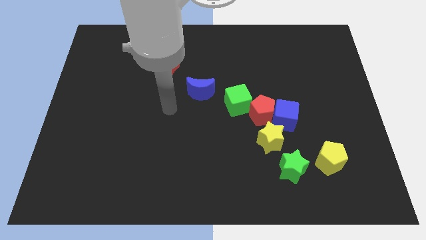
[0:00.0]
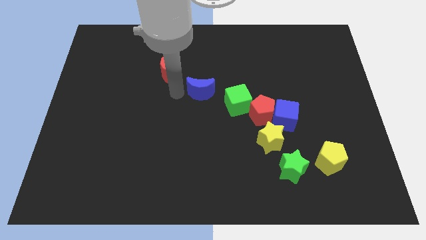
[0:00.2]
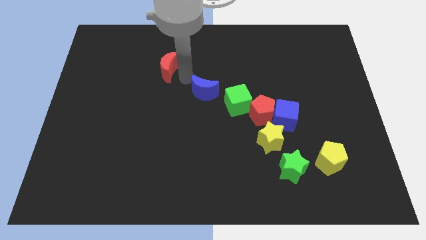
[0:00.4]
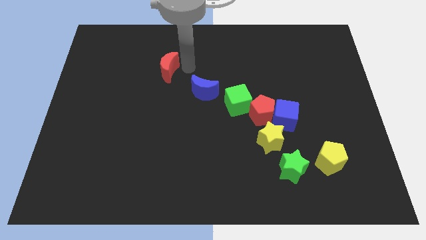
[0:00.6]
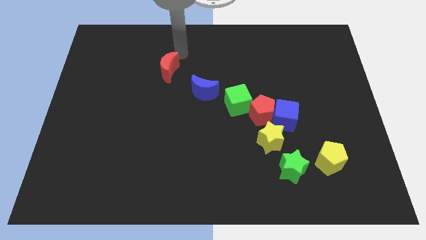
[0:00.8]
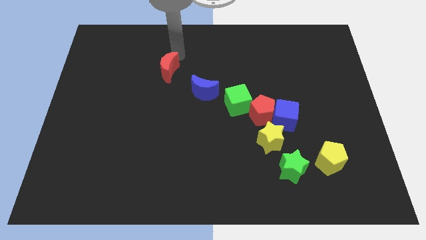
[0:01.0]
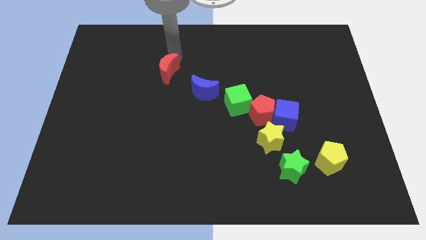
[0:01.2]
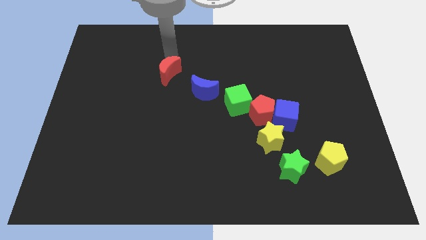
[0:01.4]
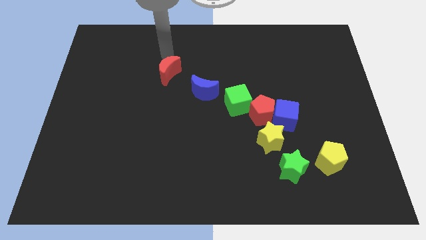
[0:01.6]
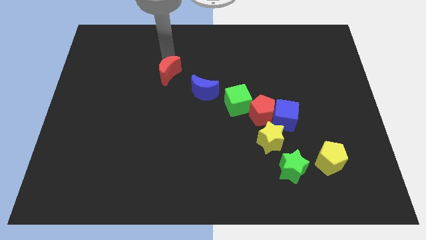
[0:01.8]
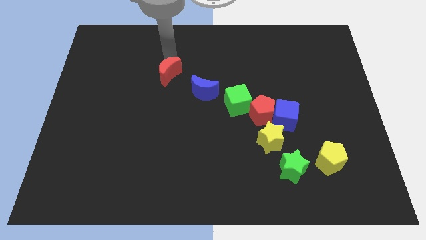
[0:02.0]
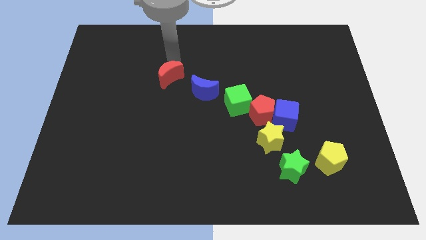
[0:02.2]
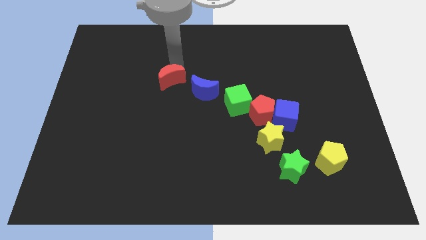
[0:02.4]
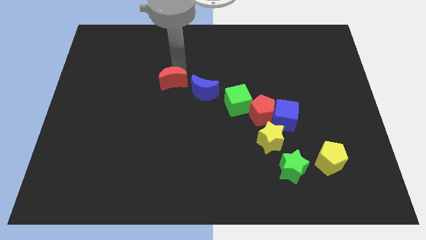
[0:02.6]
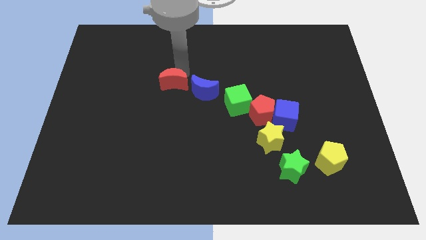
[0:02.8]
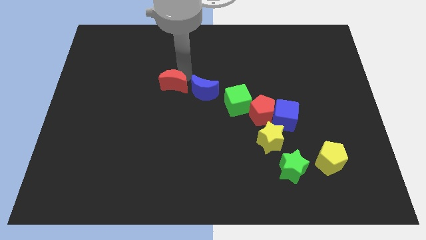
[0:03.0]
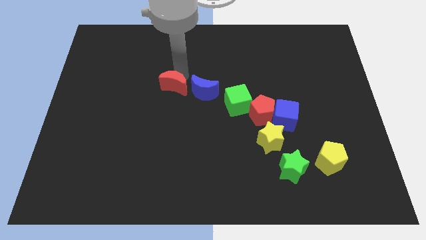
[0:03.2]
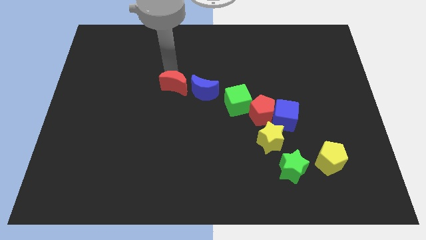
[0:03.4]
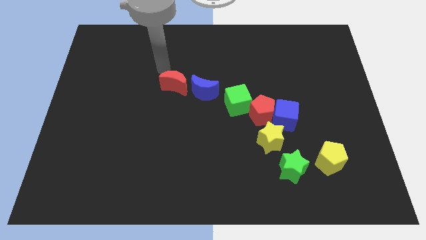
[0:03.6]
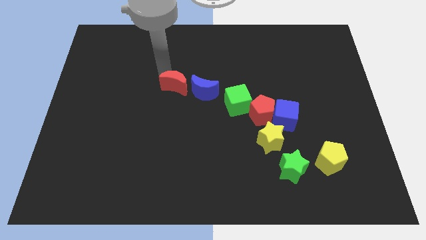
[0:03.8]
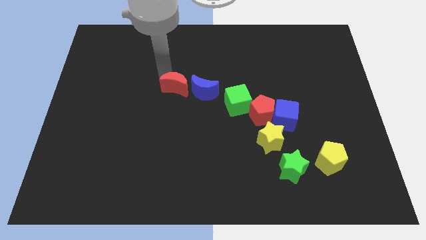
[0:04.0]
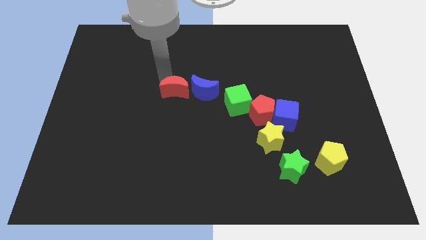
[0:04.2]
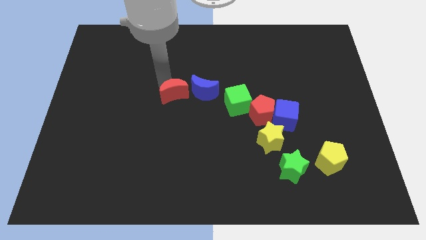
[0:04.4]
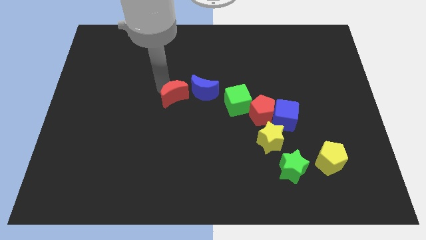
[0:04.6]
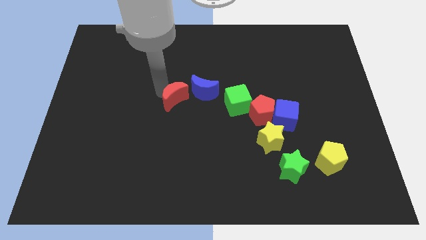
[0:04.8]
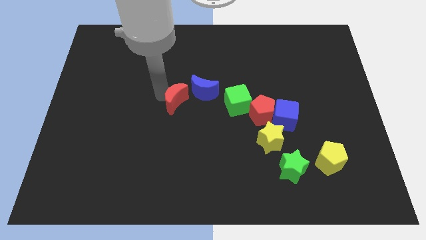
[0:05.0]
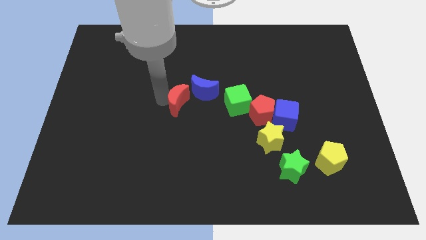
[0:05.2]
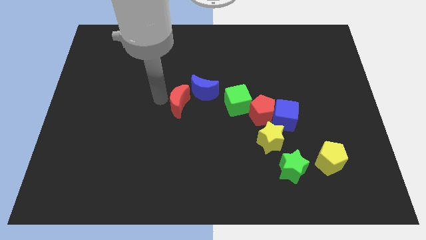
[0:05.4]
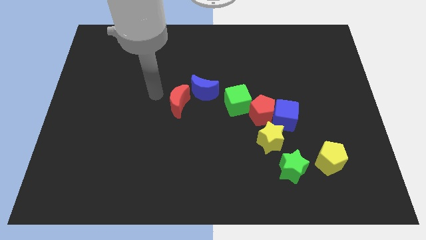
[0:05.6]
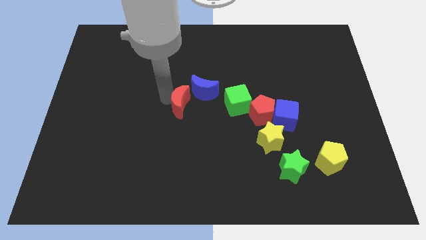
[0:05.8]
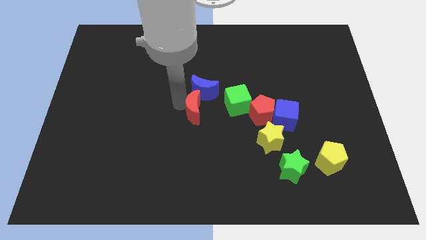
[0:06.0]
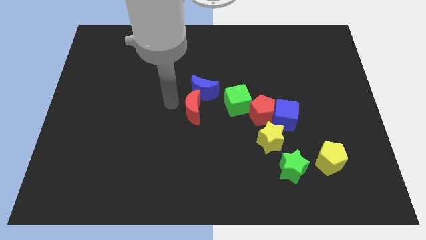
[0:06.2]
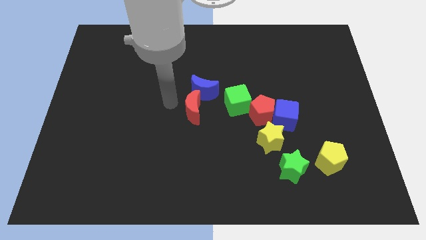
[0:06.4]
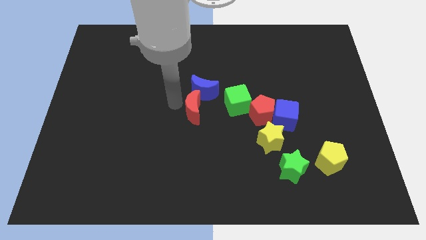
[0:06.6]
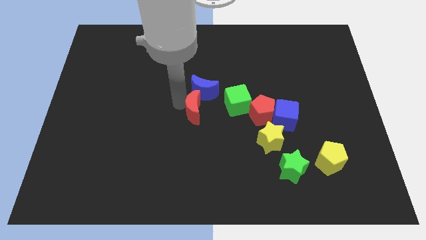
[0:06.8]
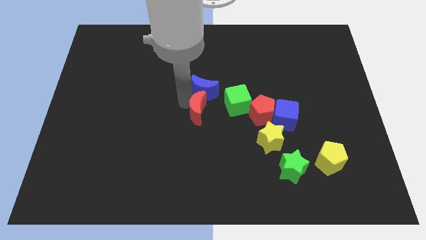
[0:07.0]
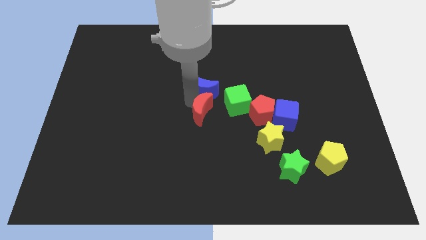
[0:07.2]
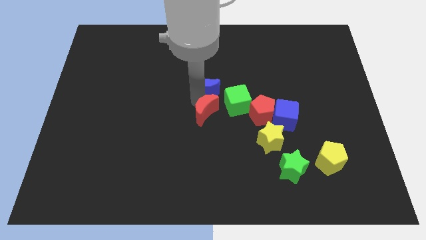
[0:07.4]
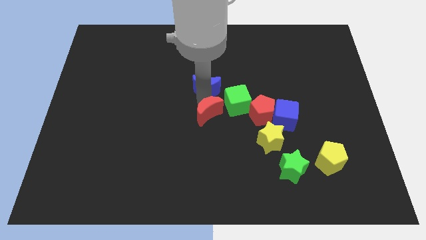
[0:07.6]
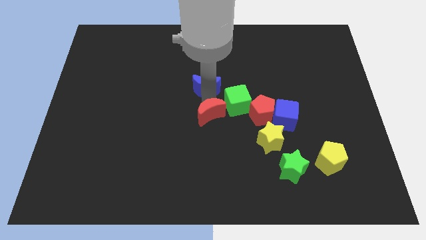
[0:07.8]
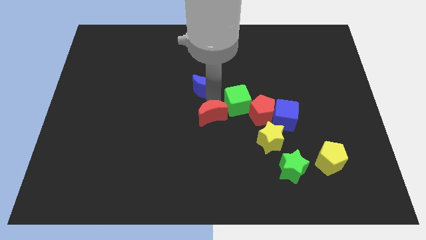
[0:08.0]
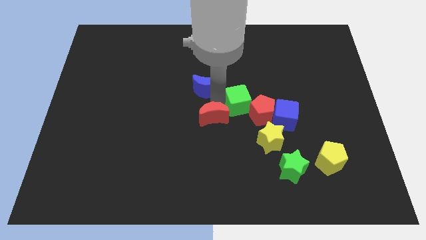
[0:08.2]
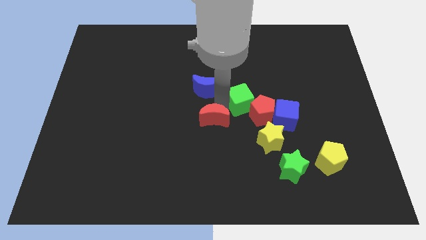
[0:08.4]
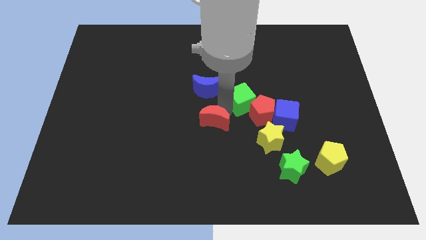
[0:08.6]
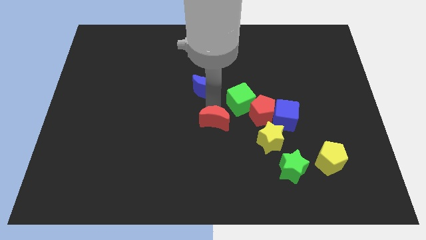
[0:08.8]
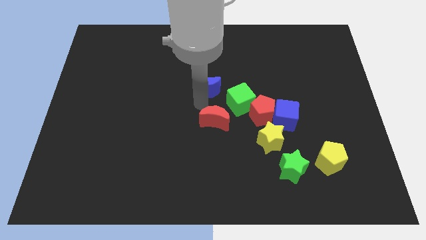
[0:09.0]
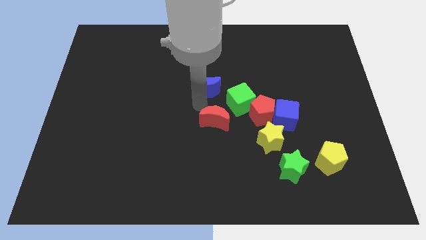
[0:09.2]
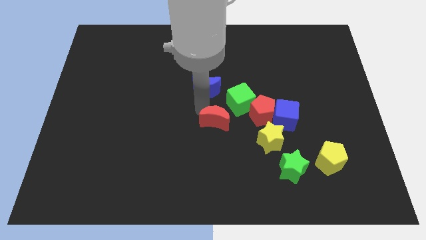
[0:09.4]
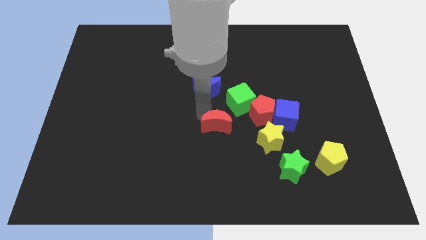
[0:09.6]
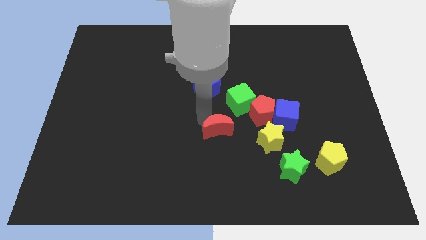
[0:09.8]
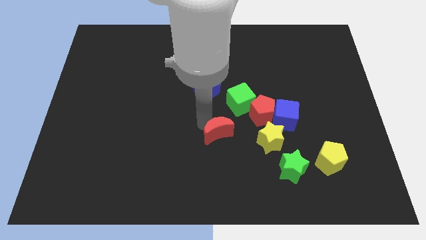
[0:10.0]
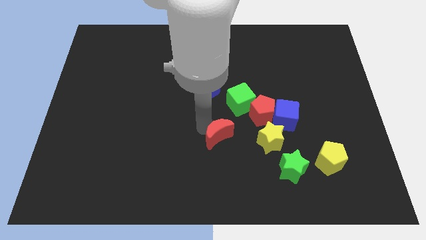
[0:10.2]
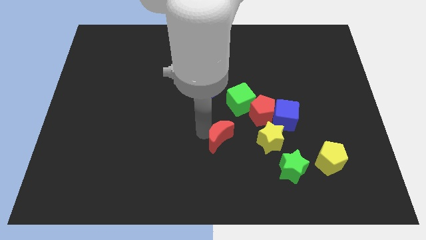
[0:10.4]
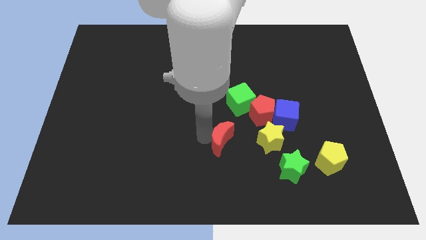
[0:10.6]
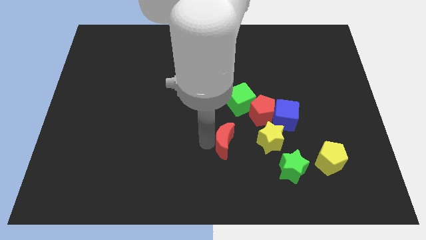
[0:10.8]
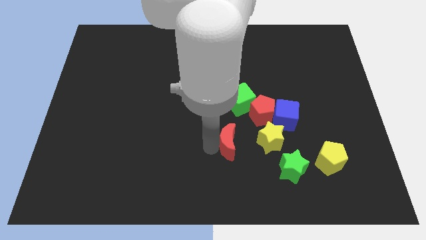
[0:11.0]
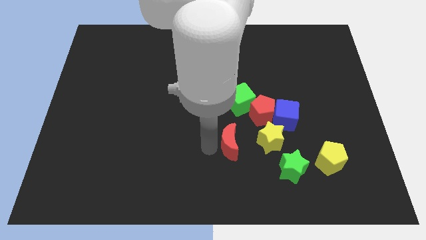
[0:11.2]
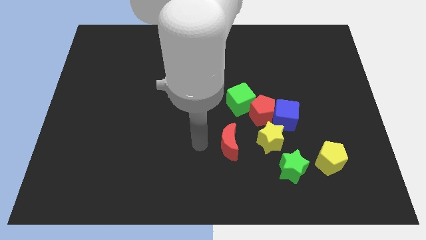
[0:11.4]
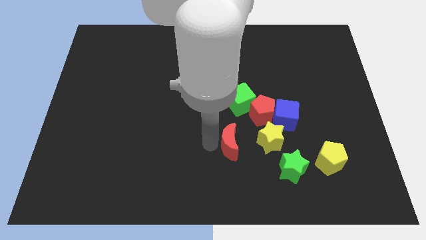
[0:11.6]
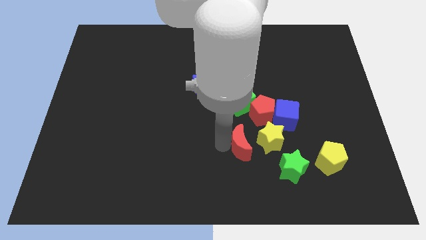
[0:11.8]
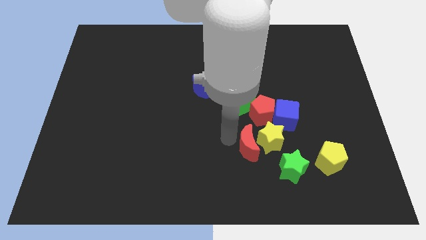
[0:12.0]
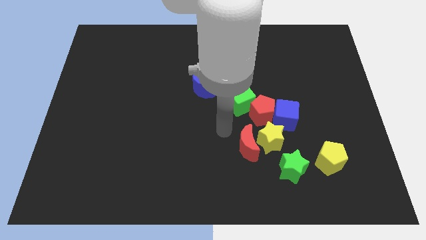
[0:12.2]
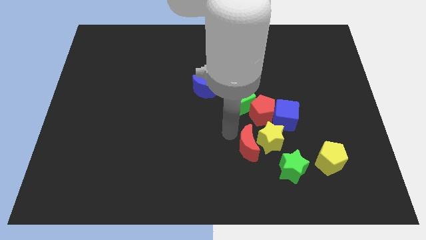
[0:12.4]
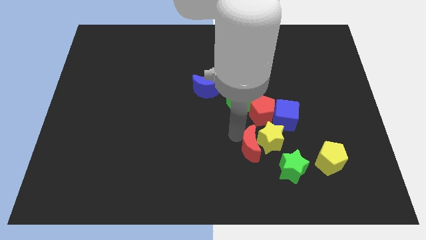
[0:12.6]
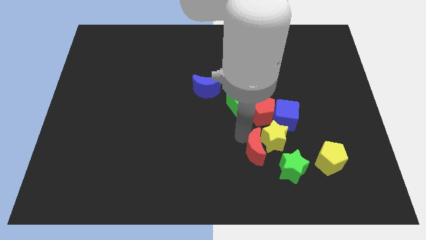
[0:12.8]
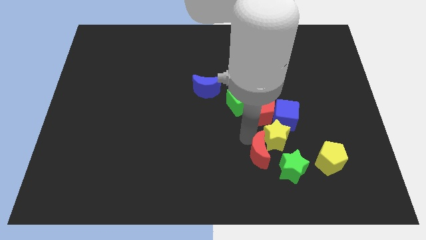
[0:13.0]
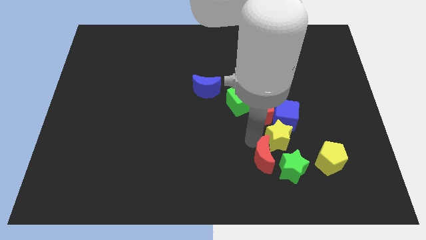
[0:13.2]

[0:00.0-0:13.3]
put the red moon next to the green star

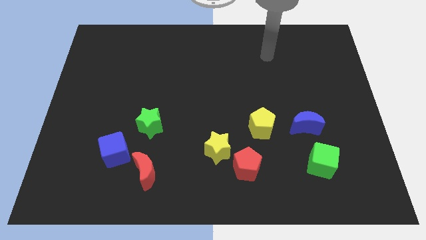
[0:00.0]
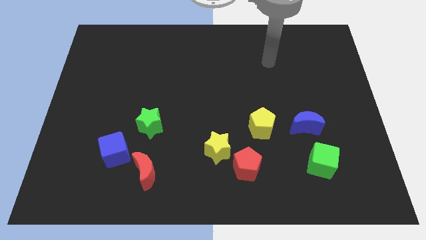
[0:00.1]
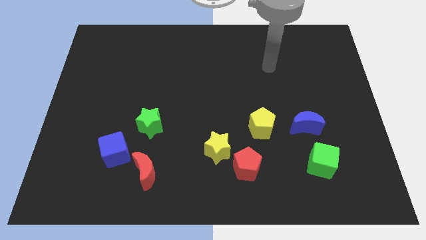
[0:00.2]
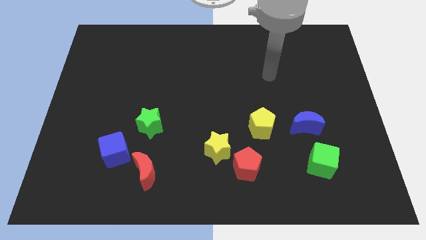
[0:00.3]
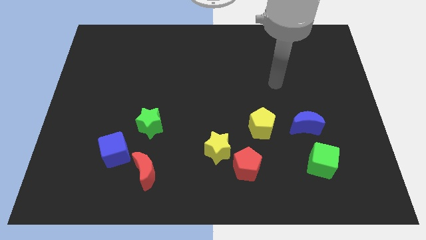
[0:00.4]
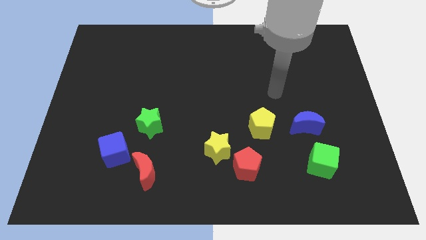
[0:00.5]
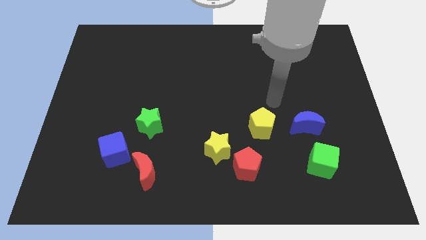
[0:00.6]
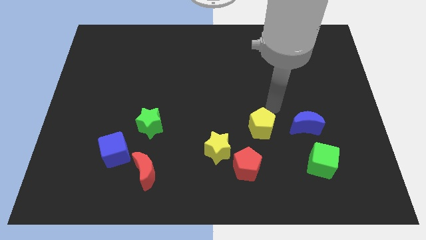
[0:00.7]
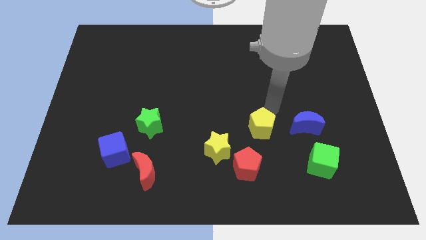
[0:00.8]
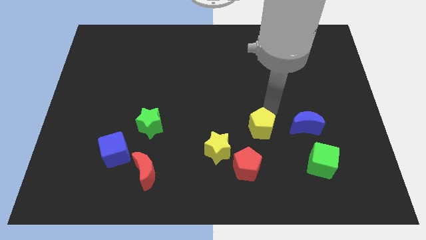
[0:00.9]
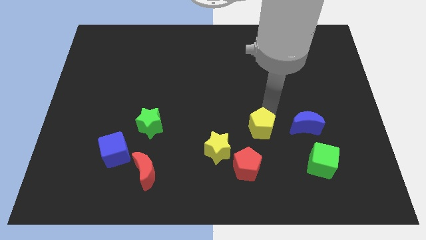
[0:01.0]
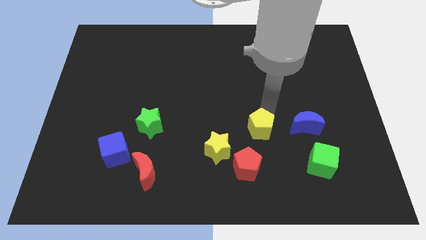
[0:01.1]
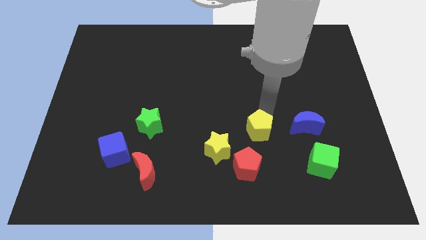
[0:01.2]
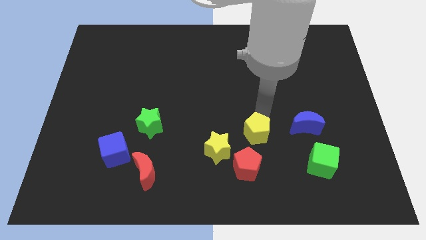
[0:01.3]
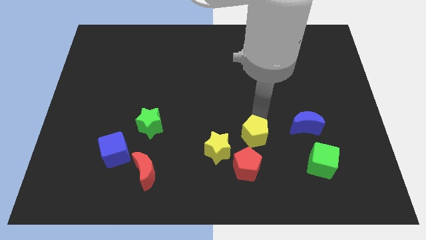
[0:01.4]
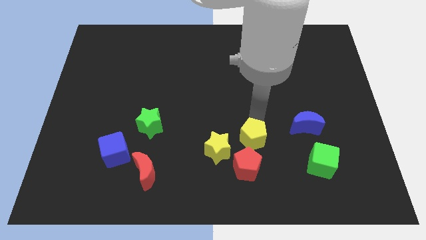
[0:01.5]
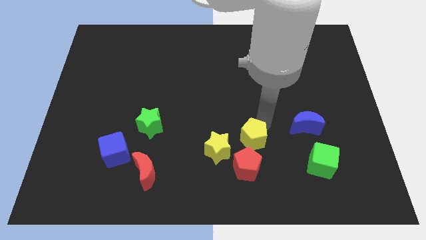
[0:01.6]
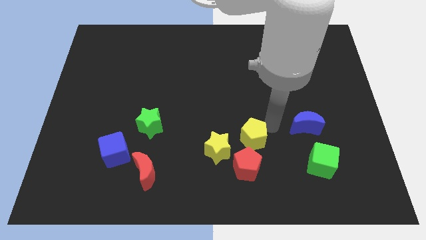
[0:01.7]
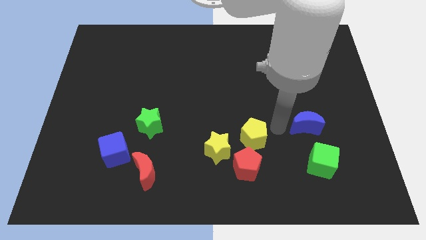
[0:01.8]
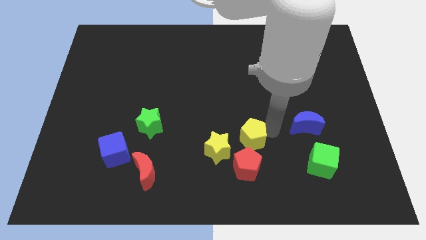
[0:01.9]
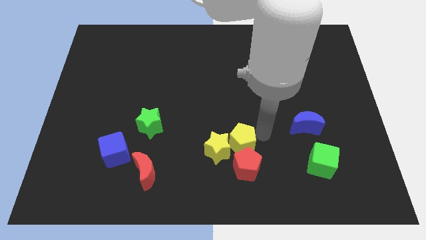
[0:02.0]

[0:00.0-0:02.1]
move the yellow pentagon close to the yellow star
